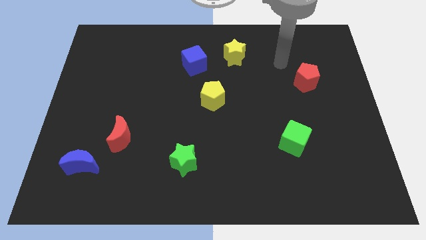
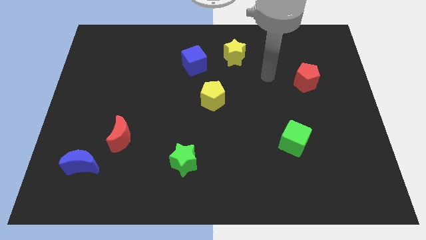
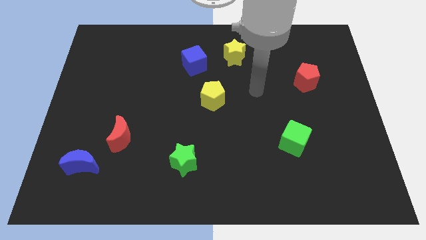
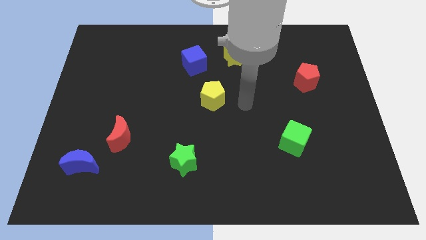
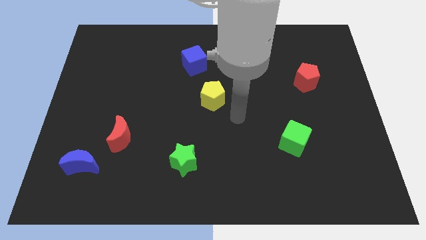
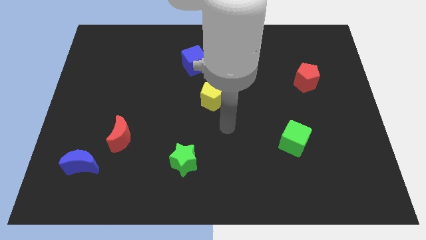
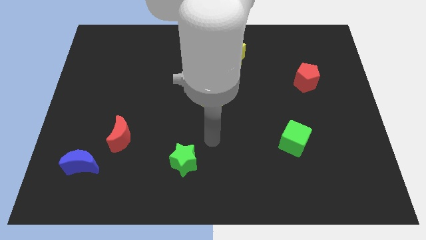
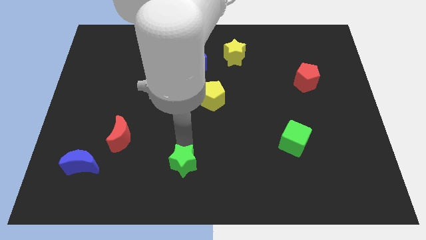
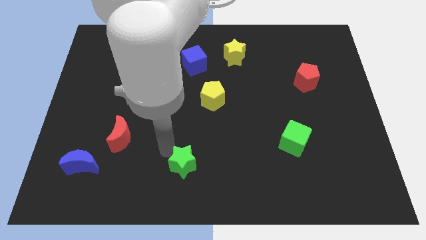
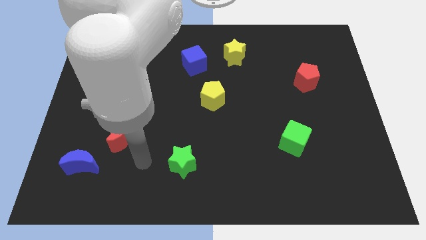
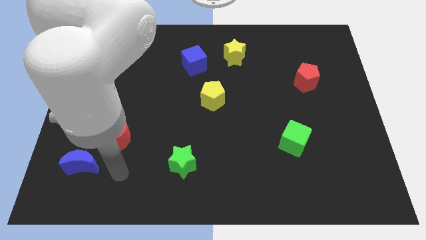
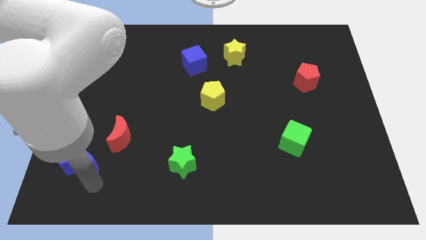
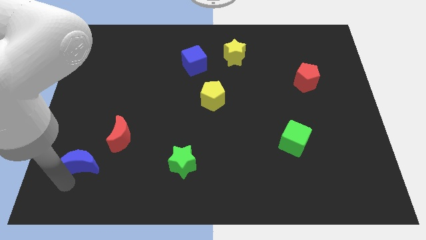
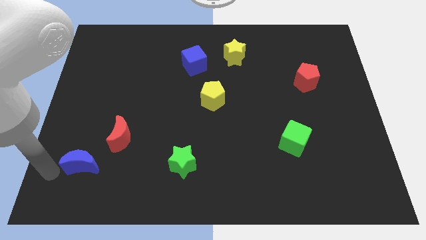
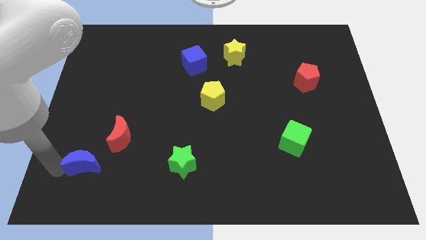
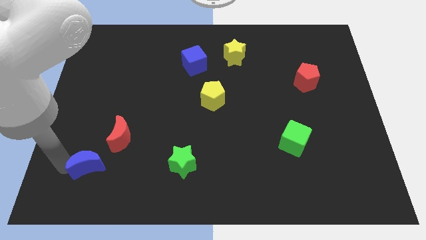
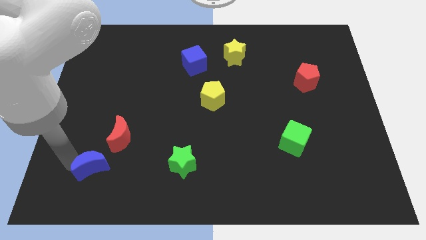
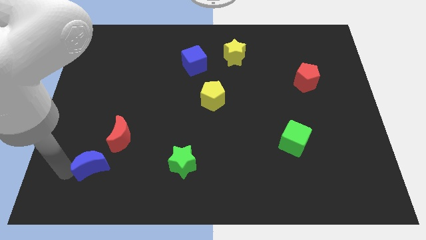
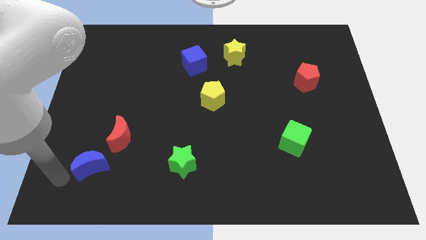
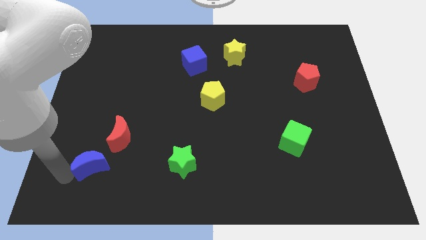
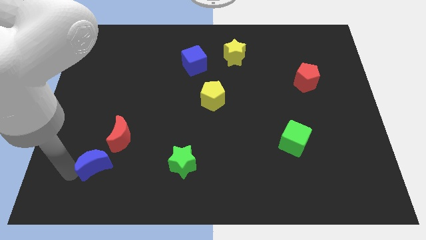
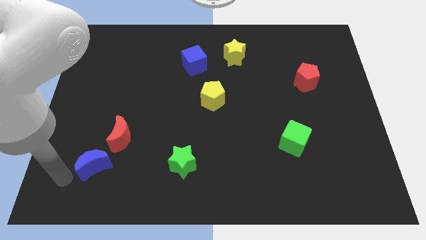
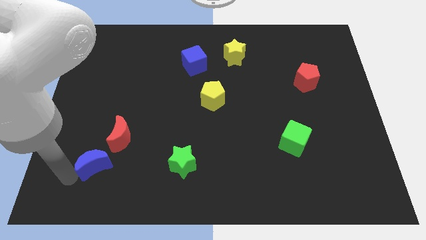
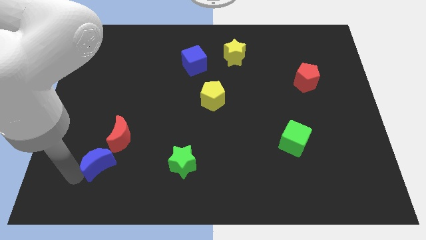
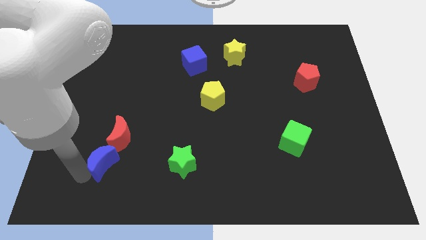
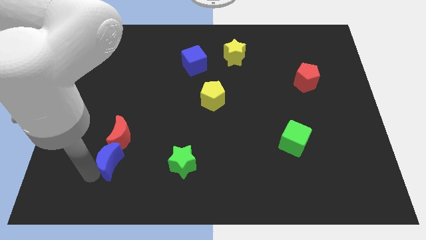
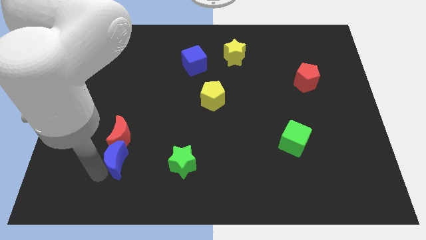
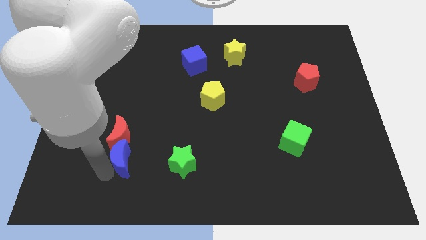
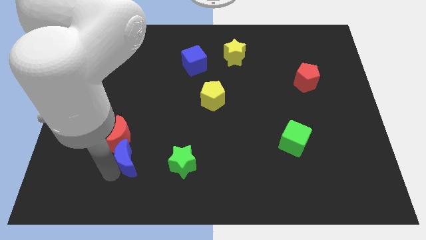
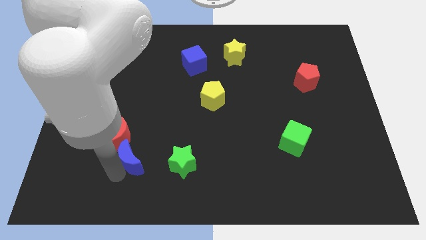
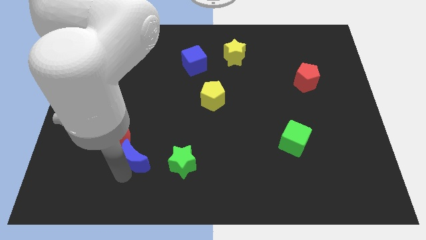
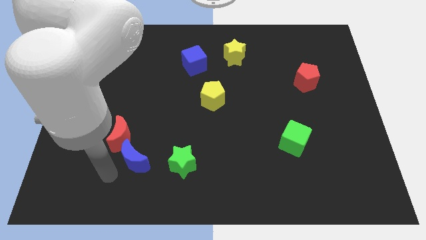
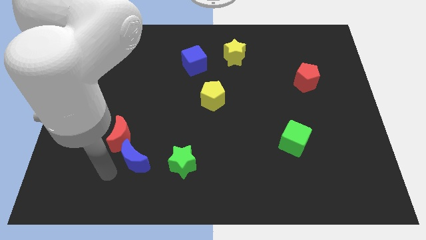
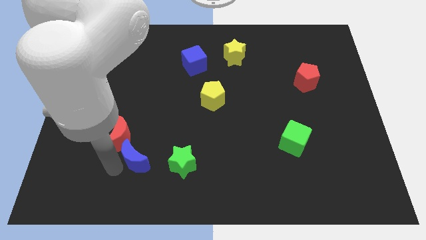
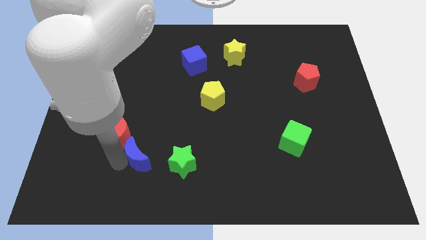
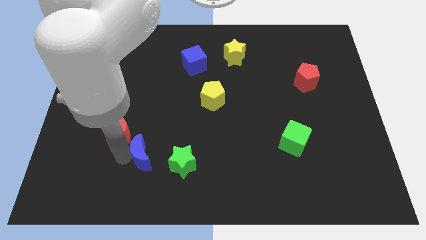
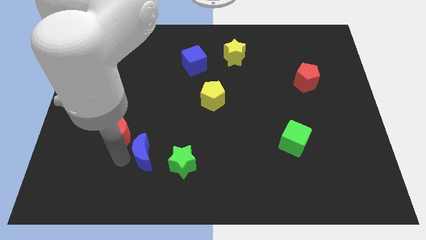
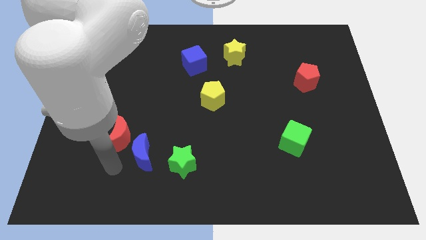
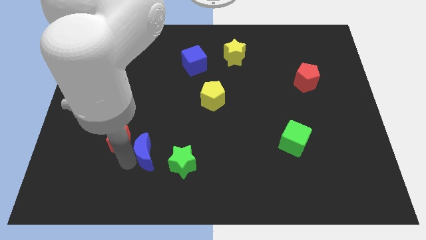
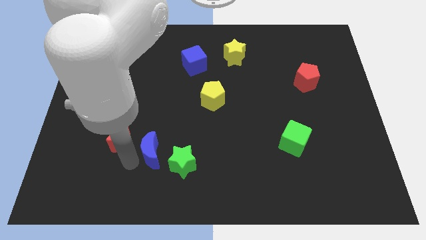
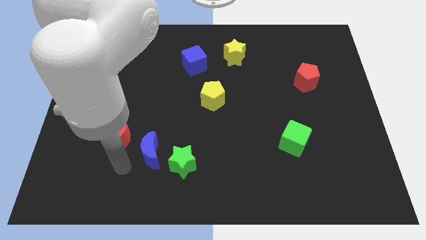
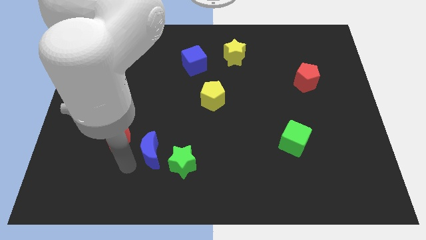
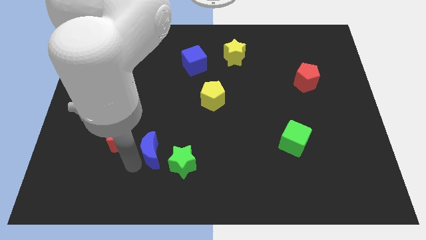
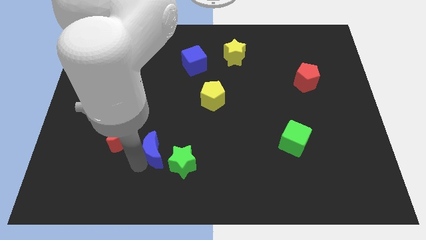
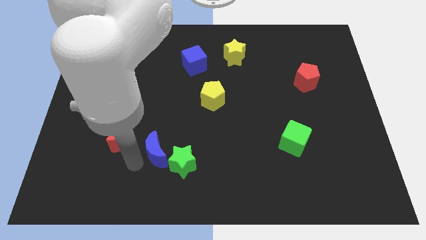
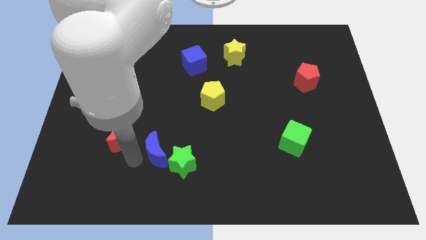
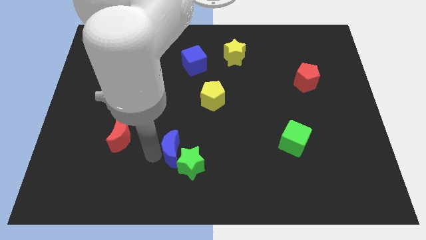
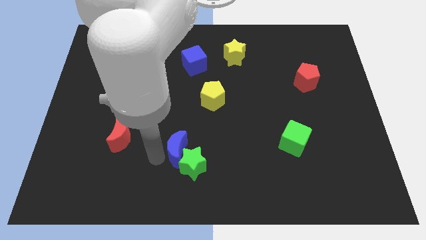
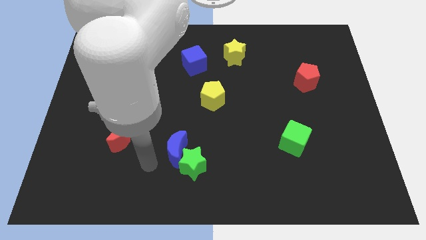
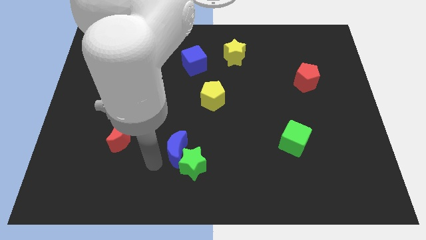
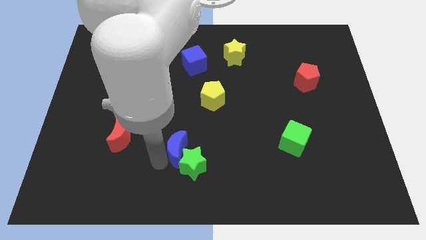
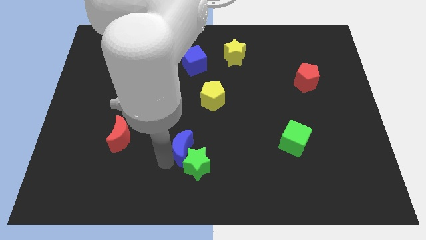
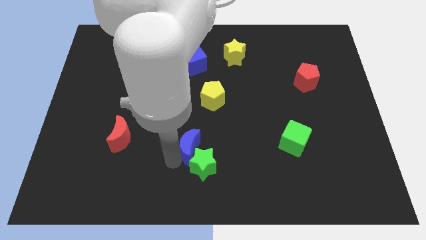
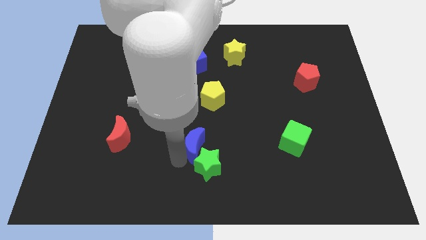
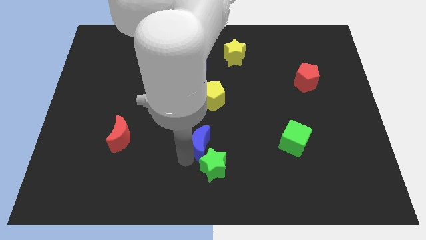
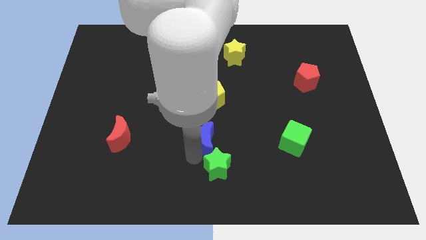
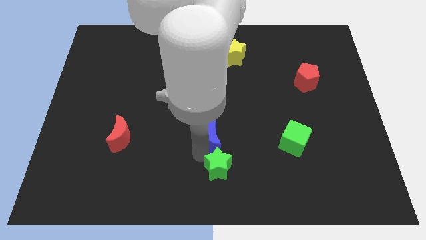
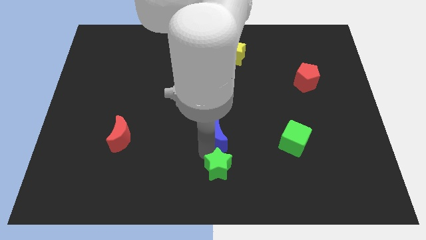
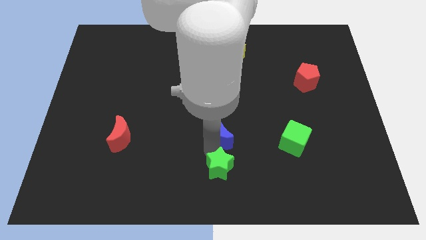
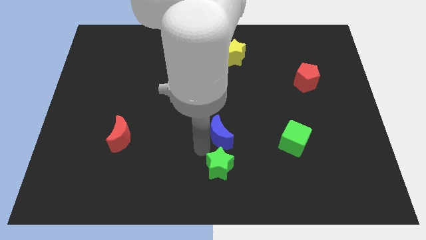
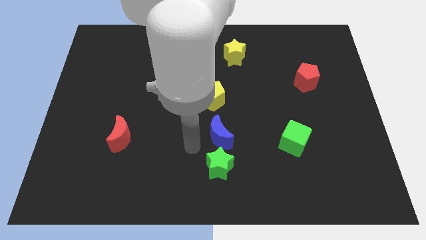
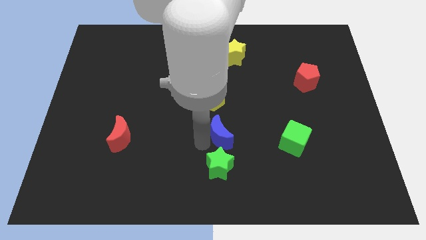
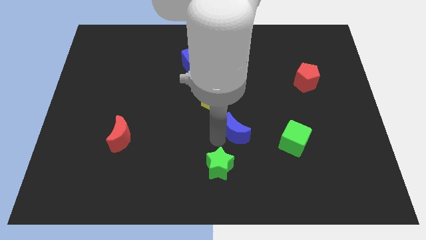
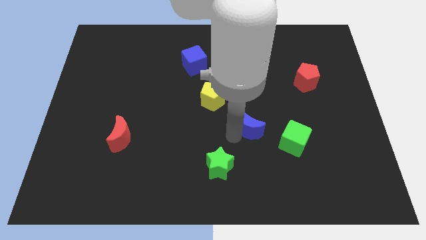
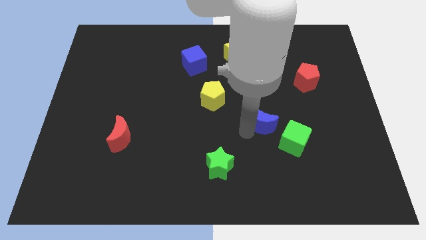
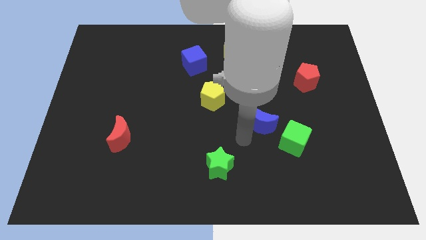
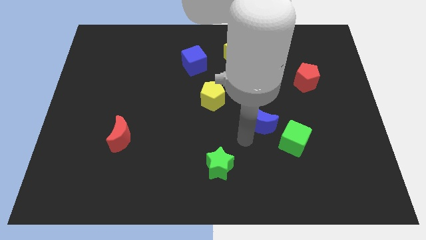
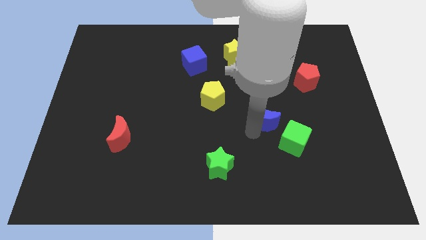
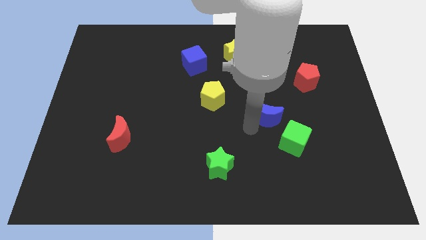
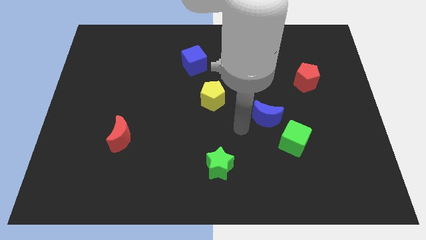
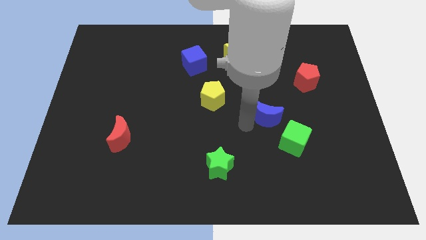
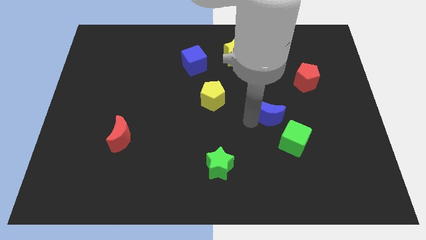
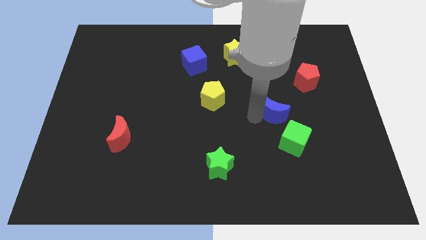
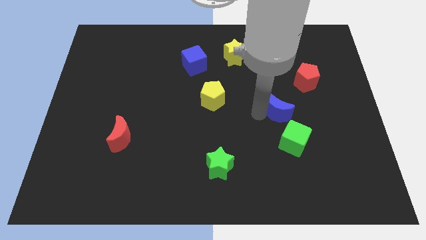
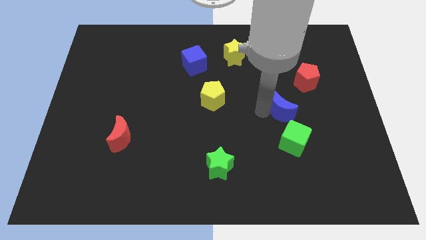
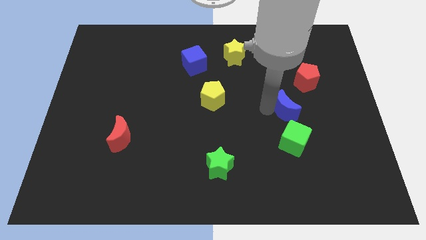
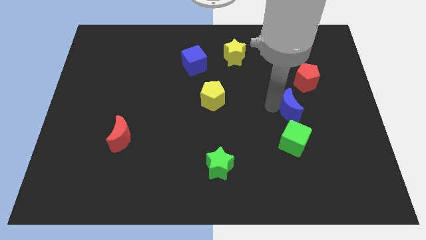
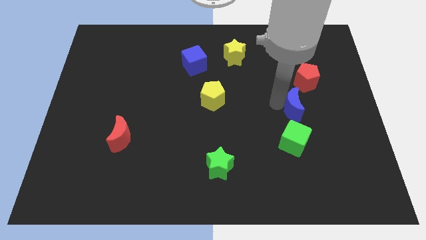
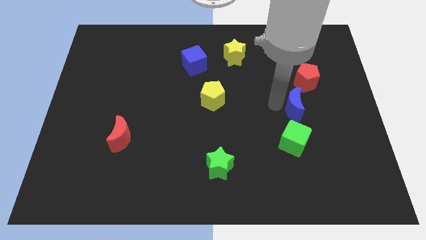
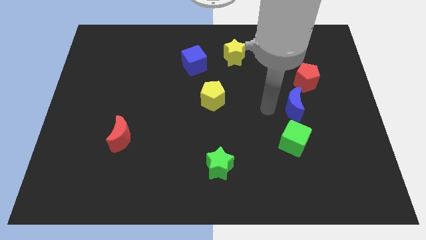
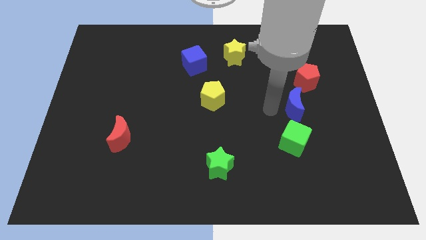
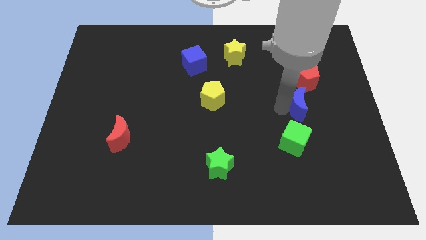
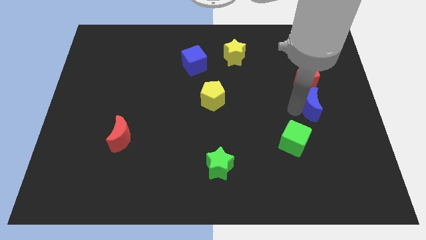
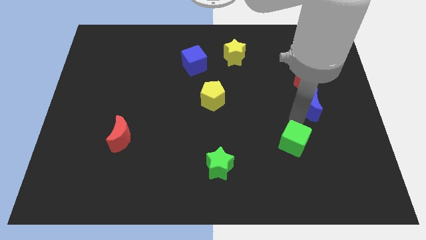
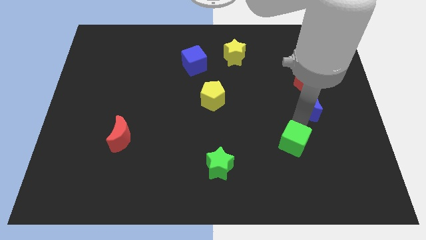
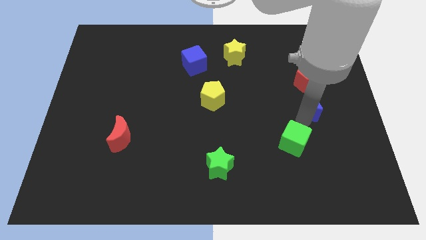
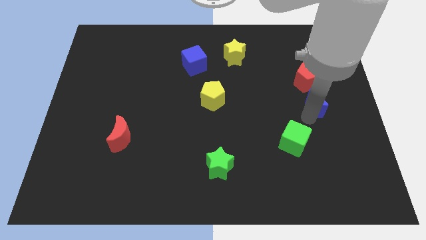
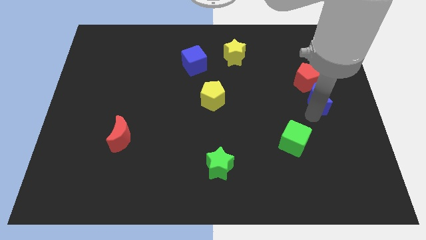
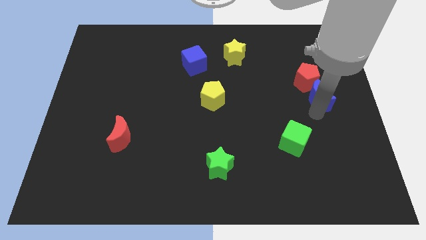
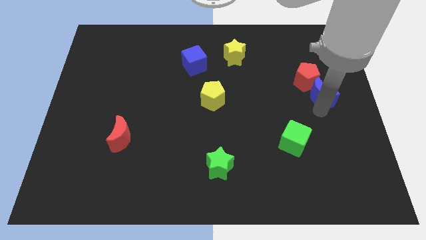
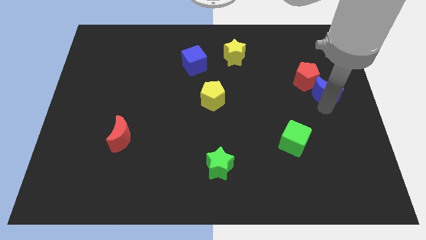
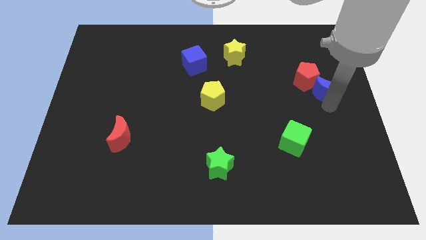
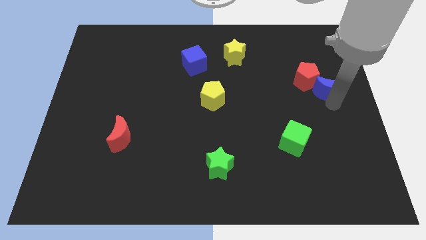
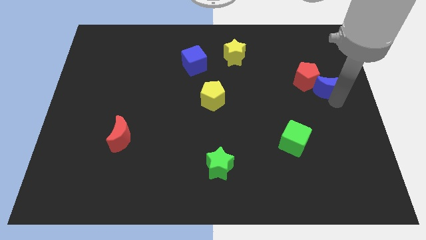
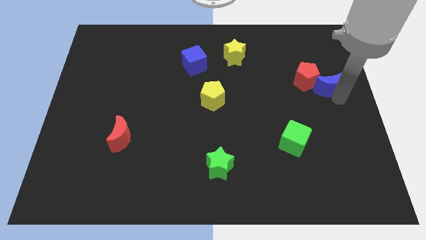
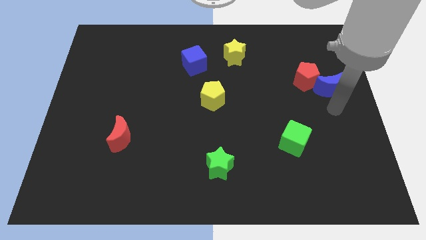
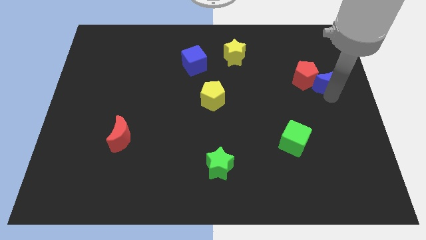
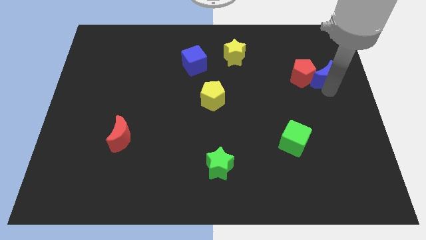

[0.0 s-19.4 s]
move the blue moon to the top right of the red pentagon
